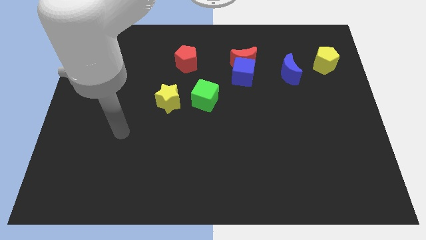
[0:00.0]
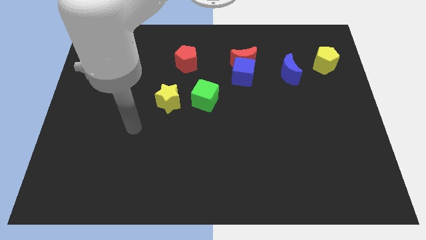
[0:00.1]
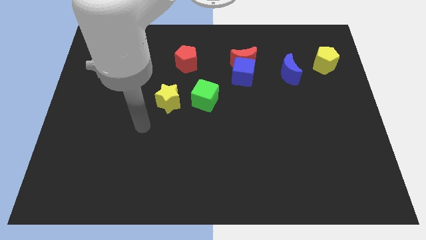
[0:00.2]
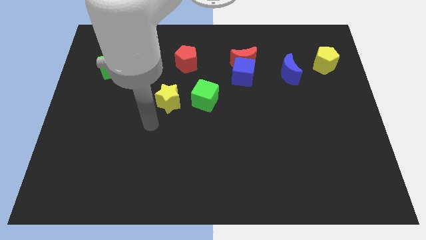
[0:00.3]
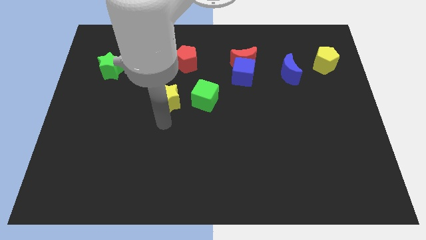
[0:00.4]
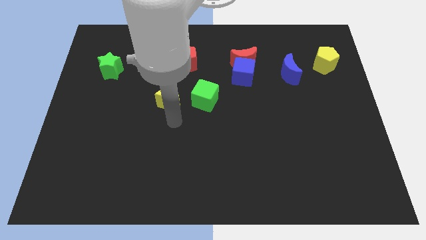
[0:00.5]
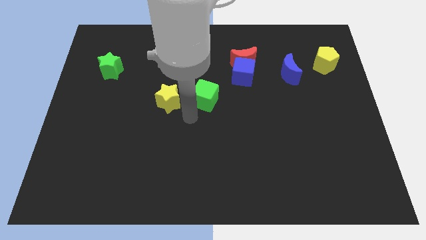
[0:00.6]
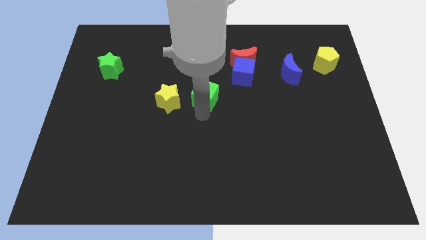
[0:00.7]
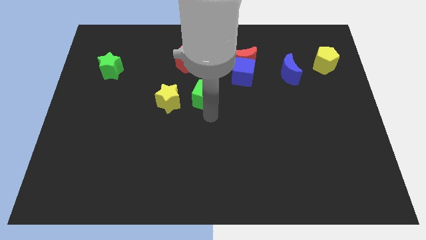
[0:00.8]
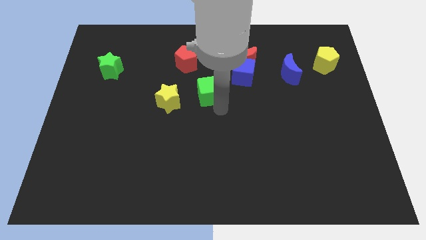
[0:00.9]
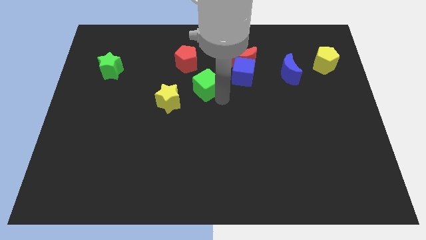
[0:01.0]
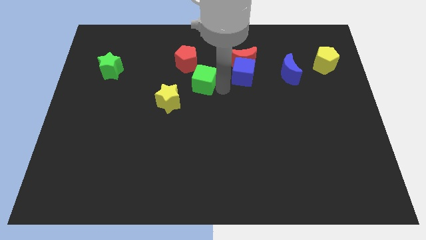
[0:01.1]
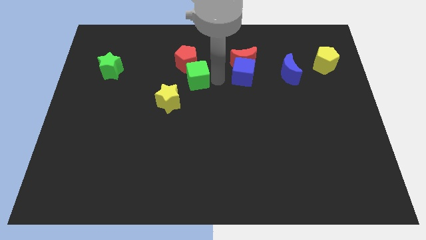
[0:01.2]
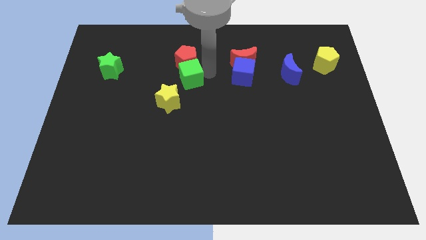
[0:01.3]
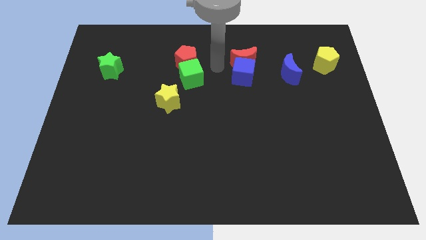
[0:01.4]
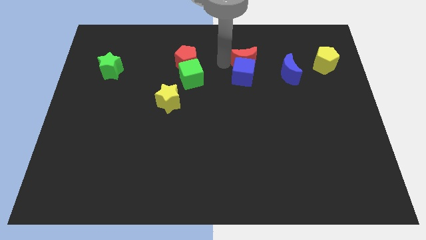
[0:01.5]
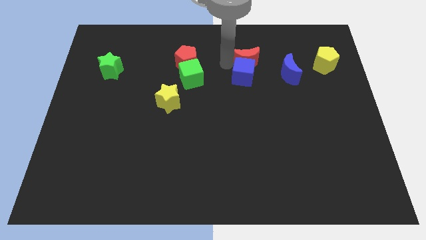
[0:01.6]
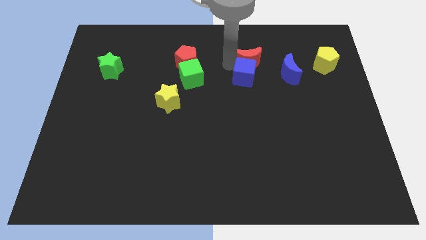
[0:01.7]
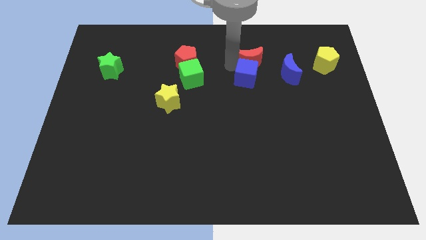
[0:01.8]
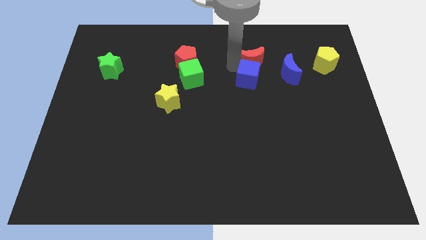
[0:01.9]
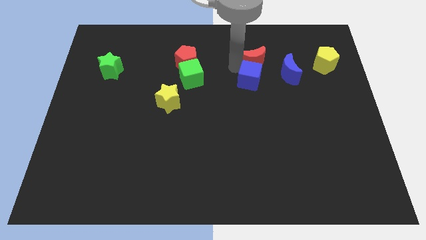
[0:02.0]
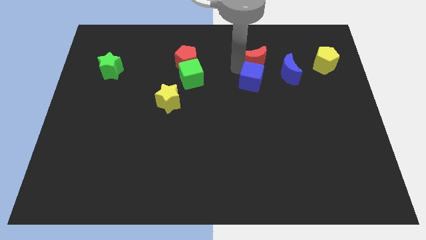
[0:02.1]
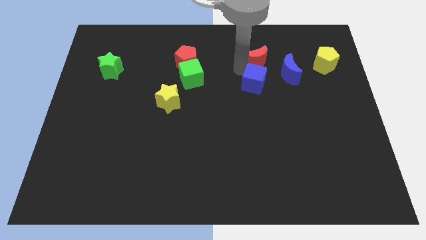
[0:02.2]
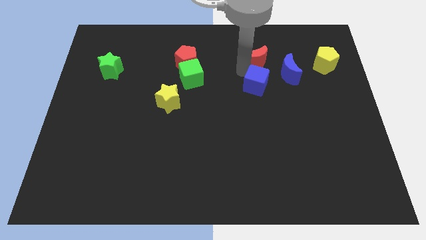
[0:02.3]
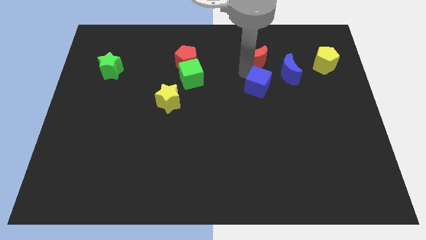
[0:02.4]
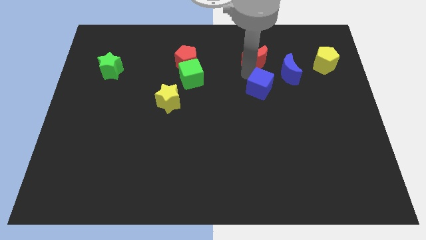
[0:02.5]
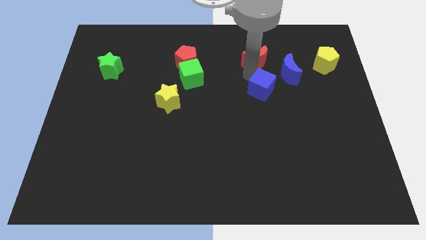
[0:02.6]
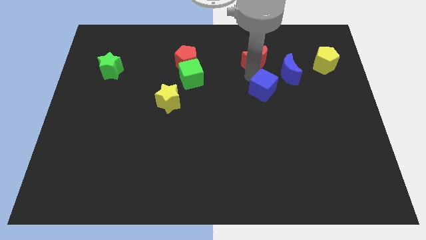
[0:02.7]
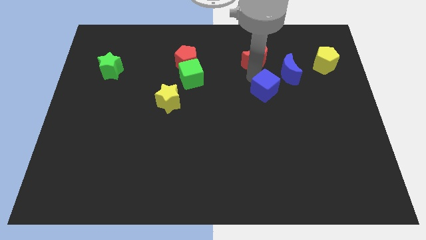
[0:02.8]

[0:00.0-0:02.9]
move the blue cube a little bit downwards and right diagonally

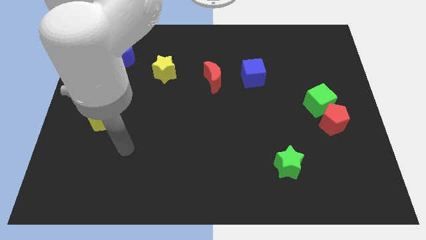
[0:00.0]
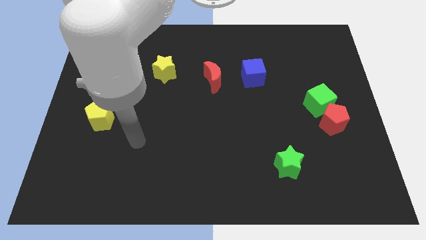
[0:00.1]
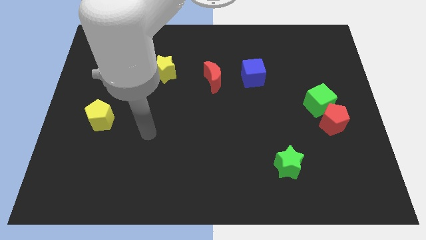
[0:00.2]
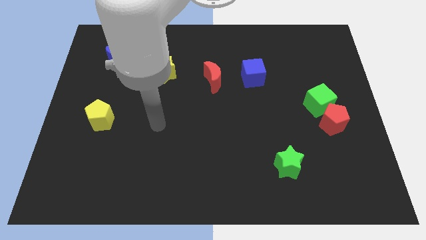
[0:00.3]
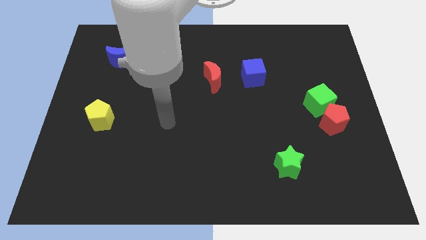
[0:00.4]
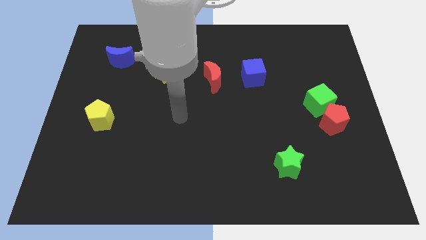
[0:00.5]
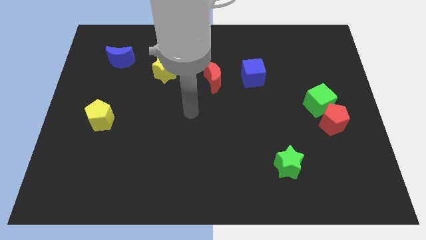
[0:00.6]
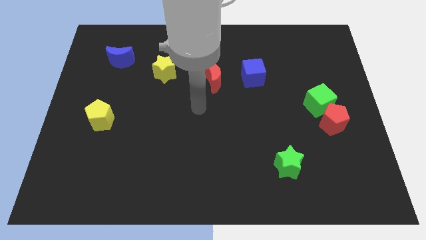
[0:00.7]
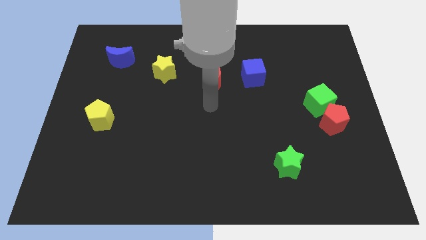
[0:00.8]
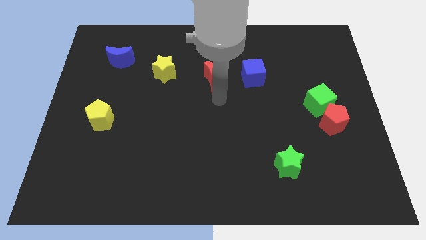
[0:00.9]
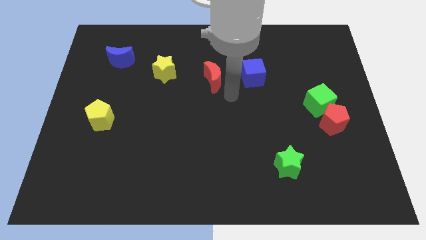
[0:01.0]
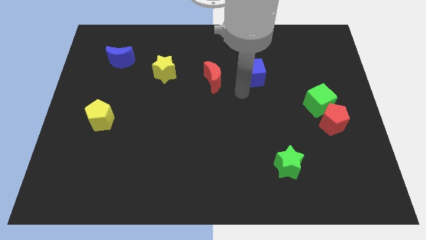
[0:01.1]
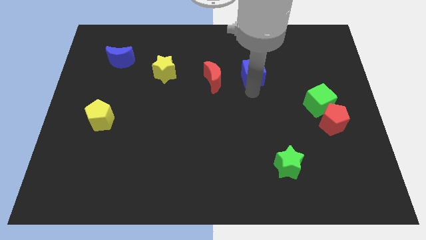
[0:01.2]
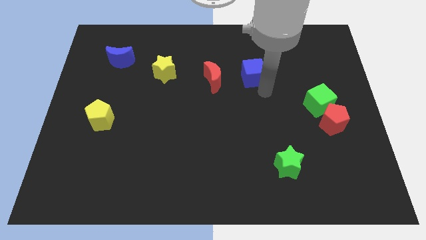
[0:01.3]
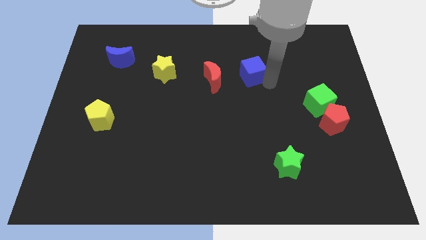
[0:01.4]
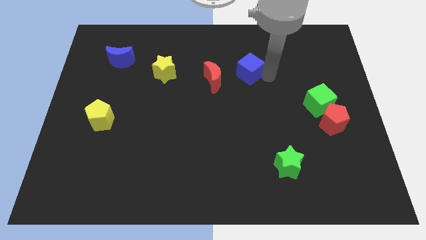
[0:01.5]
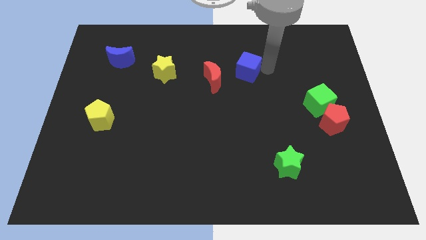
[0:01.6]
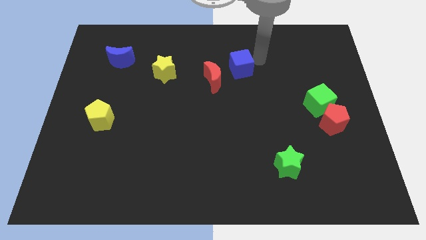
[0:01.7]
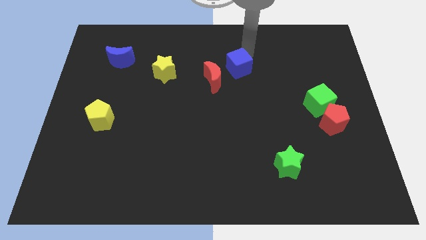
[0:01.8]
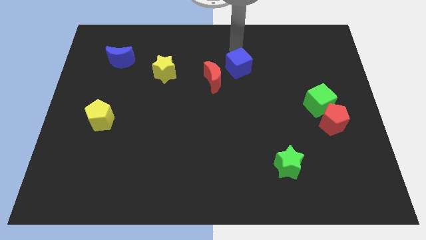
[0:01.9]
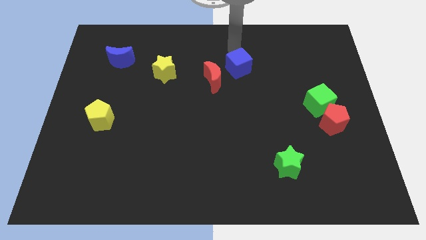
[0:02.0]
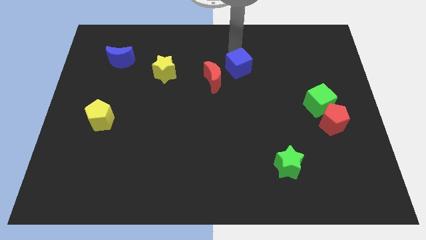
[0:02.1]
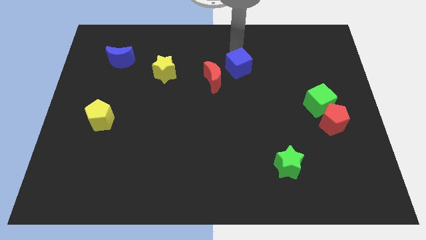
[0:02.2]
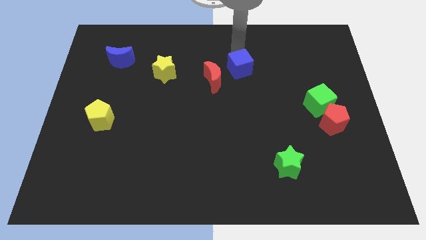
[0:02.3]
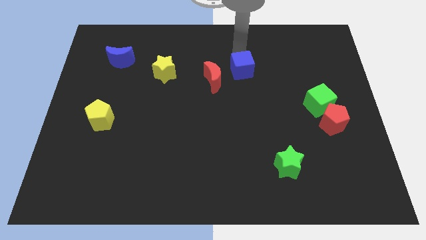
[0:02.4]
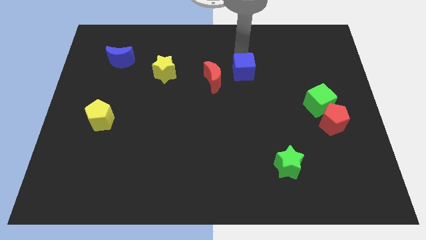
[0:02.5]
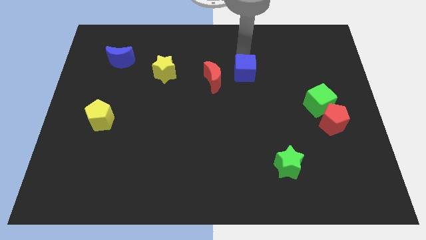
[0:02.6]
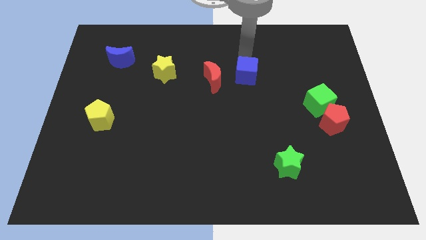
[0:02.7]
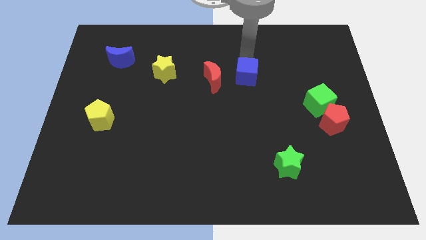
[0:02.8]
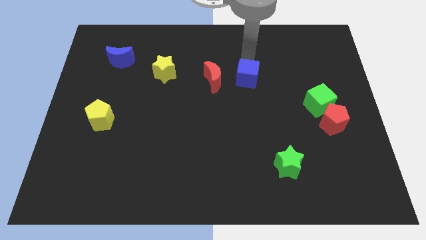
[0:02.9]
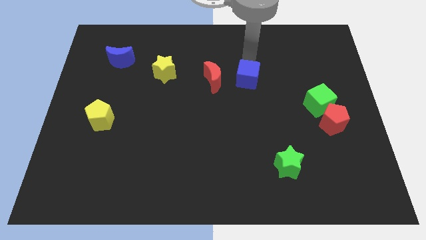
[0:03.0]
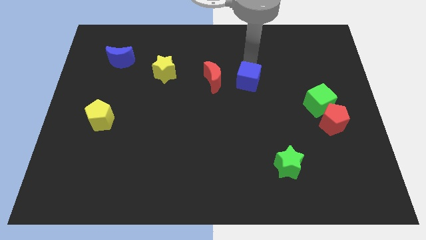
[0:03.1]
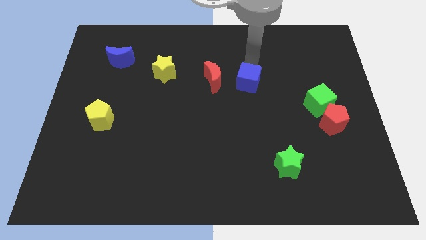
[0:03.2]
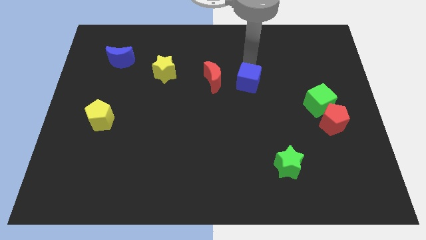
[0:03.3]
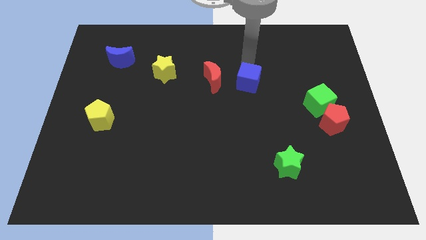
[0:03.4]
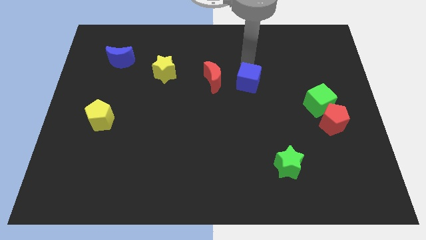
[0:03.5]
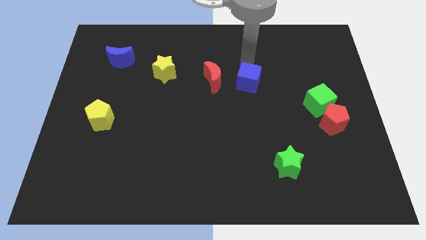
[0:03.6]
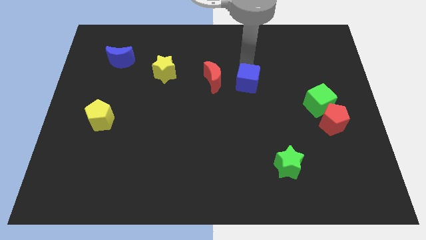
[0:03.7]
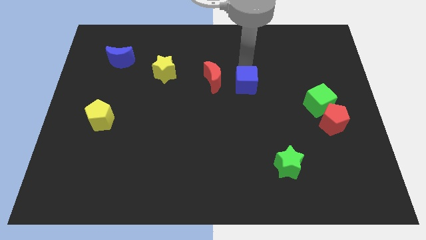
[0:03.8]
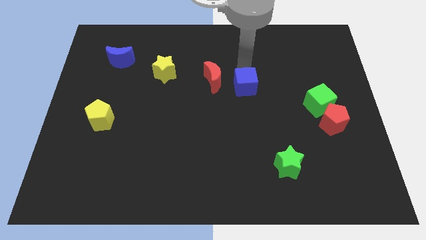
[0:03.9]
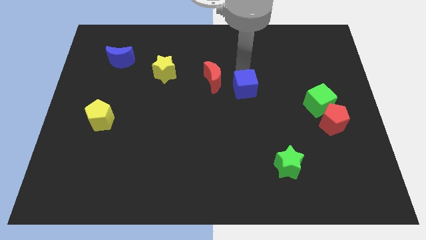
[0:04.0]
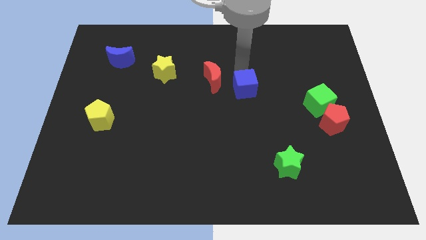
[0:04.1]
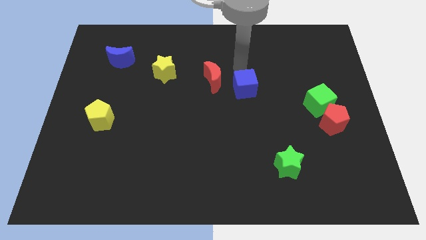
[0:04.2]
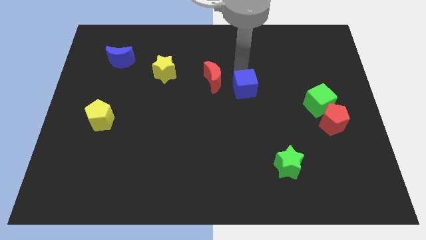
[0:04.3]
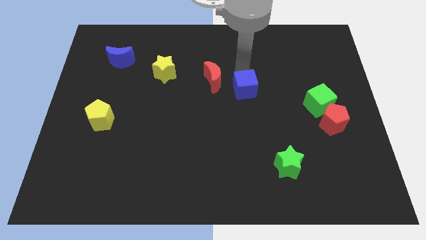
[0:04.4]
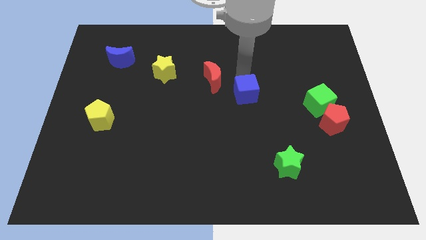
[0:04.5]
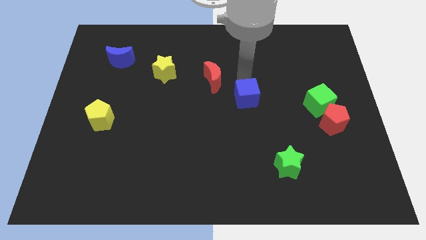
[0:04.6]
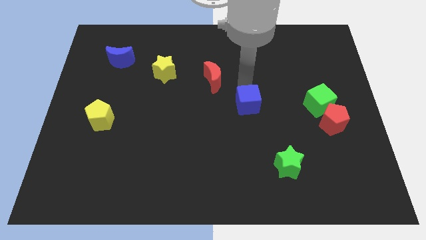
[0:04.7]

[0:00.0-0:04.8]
push the blue cube down somewhat

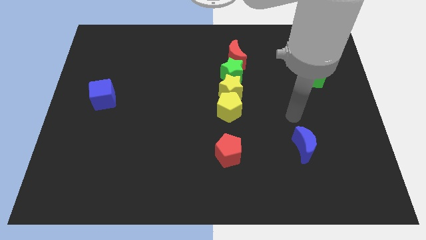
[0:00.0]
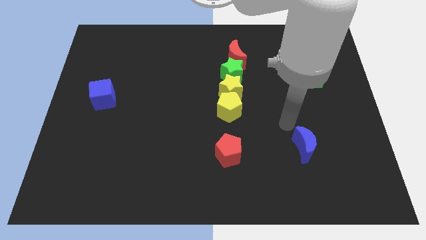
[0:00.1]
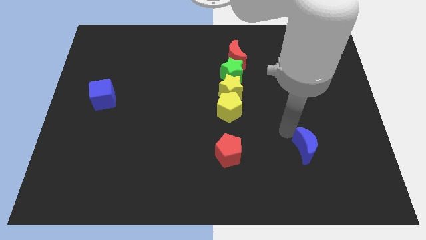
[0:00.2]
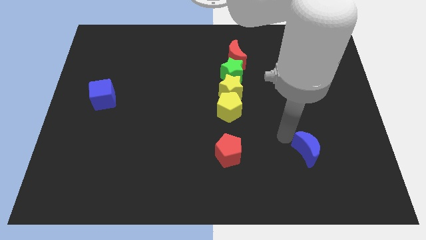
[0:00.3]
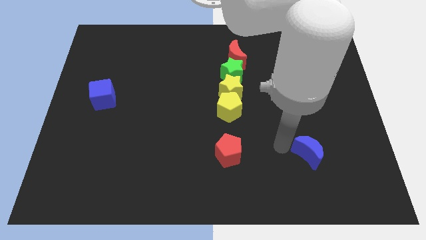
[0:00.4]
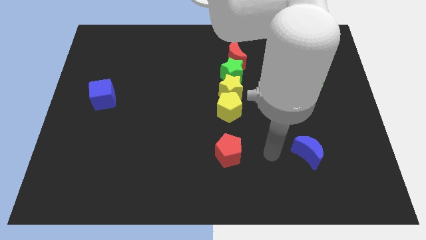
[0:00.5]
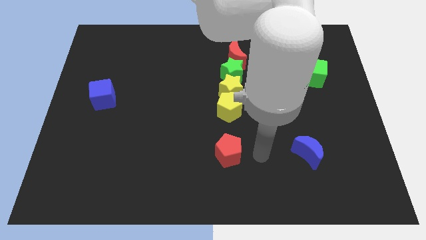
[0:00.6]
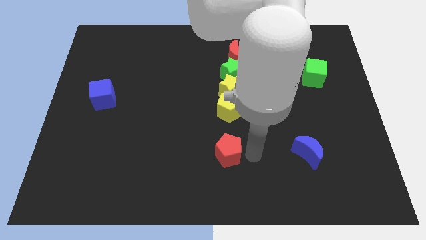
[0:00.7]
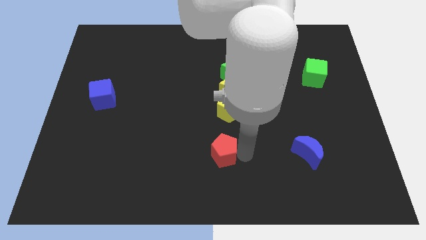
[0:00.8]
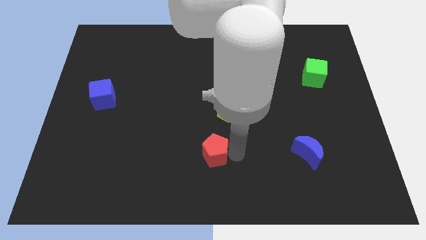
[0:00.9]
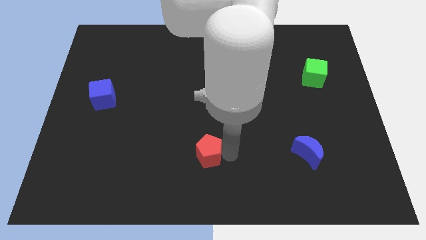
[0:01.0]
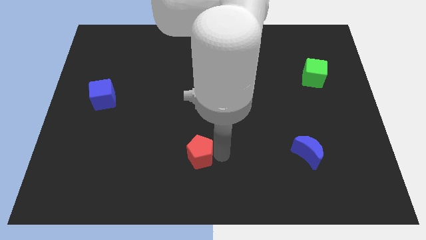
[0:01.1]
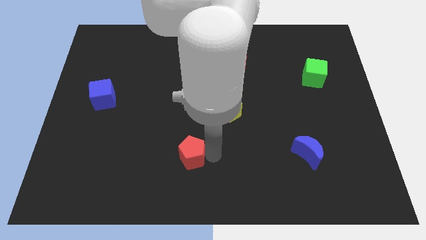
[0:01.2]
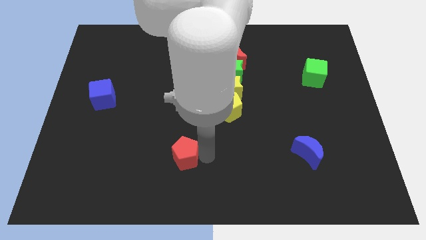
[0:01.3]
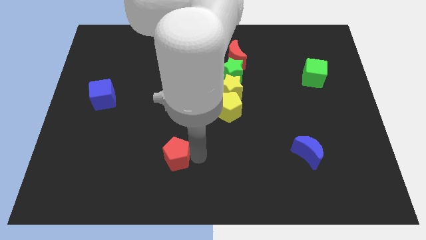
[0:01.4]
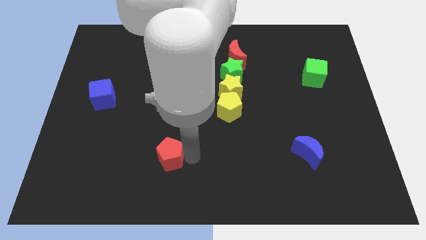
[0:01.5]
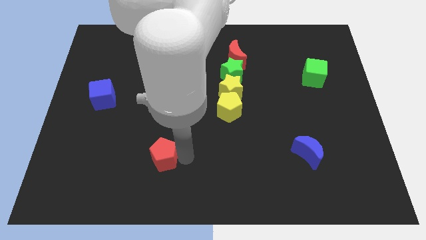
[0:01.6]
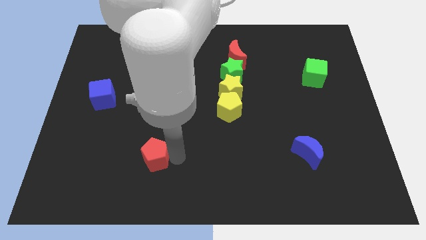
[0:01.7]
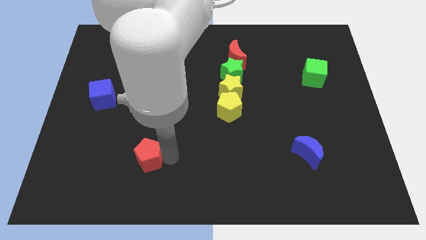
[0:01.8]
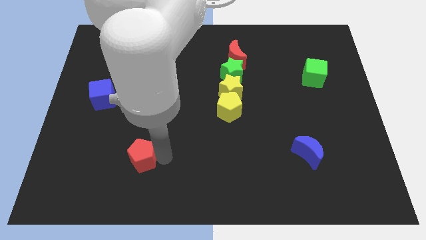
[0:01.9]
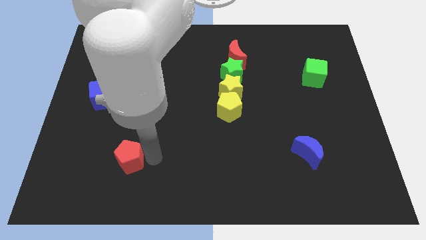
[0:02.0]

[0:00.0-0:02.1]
push the red pentagon to the left
